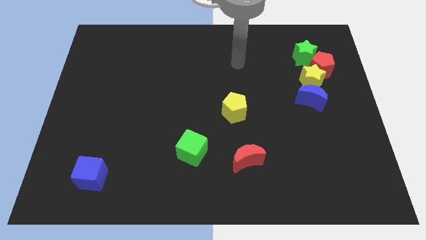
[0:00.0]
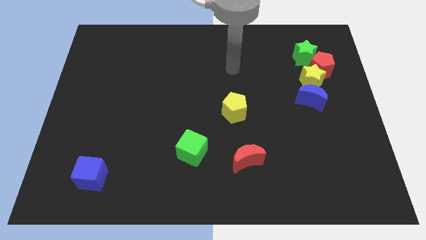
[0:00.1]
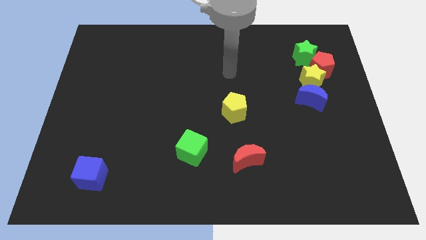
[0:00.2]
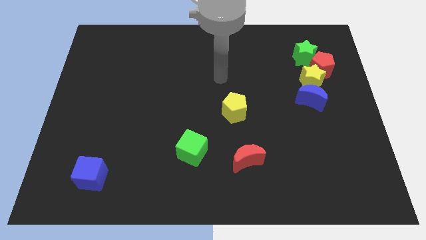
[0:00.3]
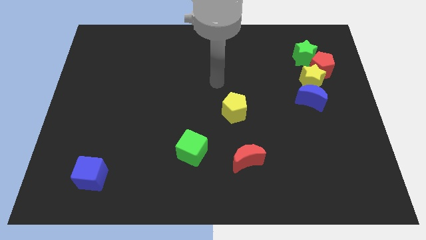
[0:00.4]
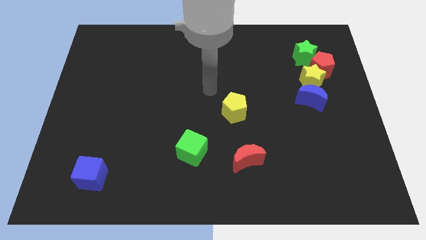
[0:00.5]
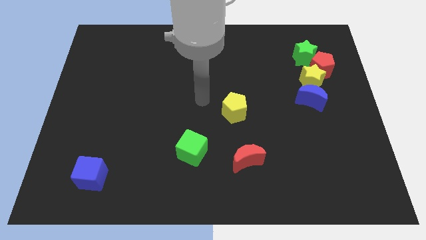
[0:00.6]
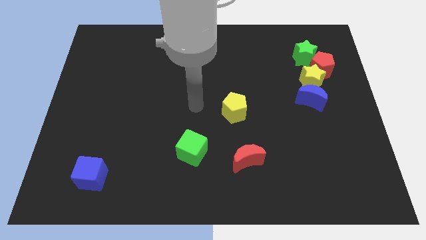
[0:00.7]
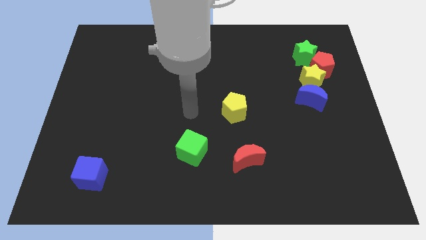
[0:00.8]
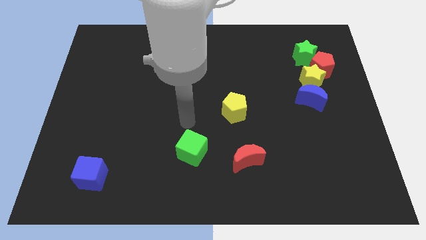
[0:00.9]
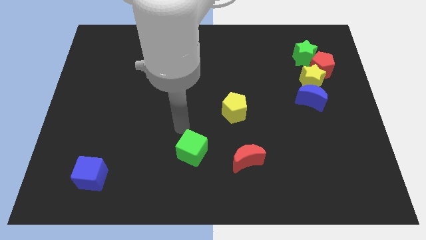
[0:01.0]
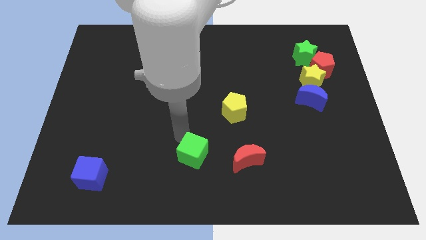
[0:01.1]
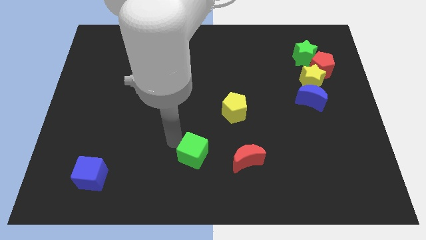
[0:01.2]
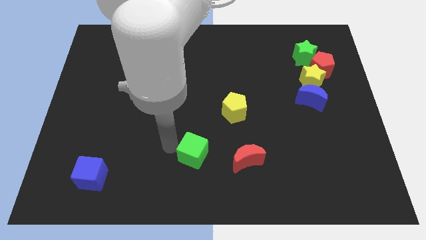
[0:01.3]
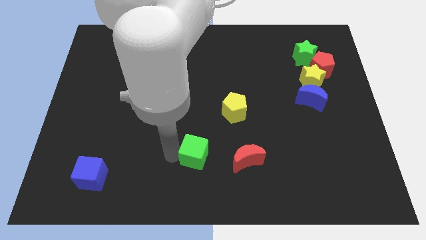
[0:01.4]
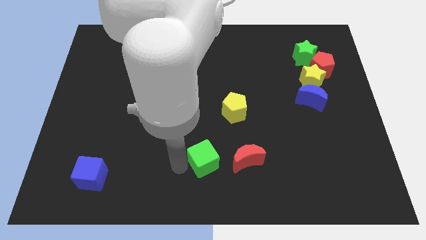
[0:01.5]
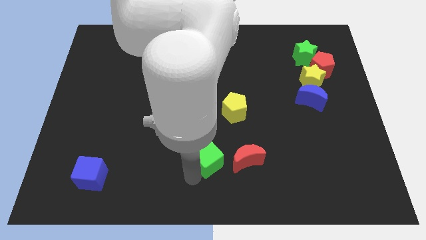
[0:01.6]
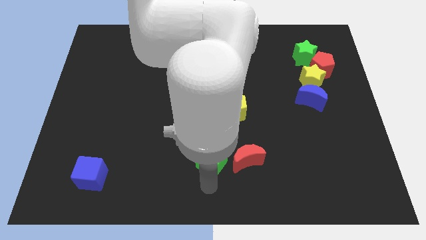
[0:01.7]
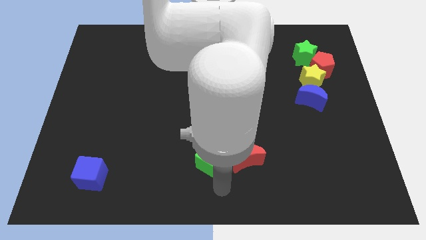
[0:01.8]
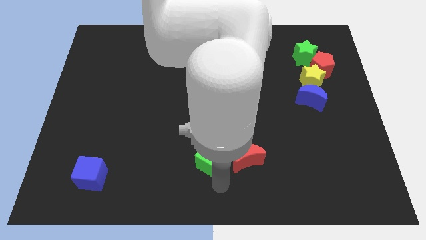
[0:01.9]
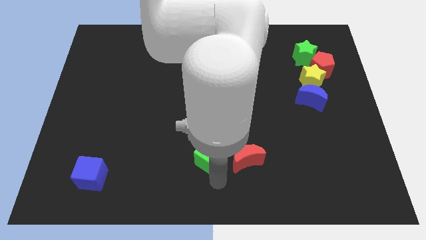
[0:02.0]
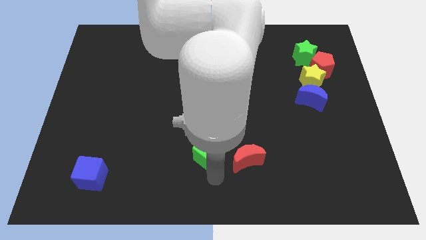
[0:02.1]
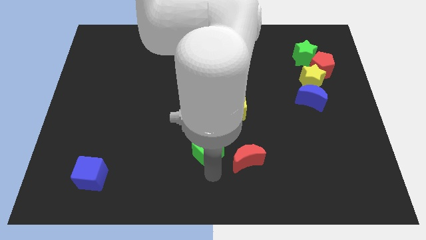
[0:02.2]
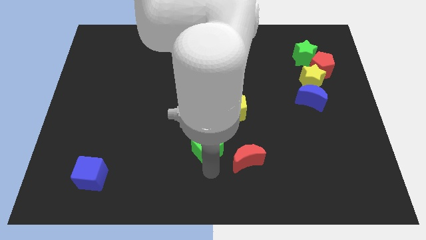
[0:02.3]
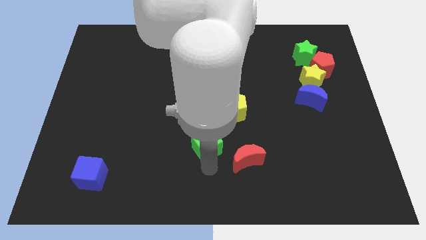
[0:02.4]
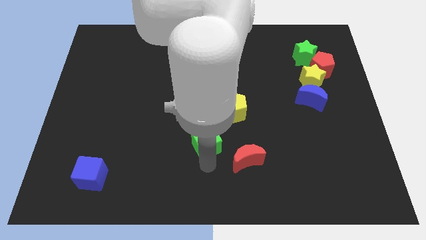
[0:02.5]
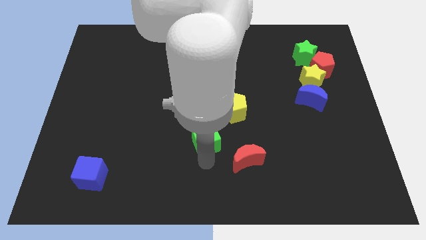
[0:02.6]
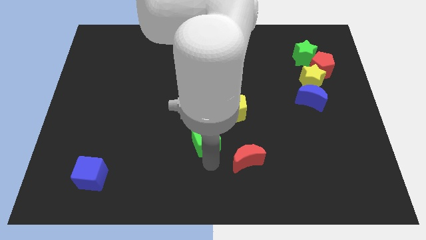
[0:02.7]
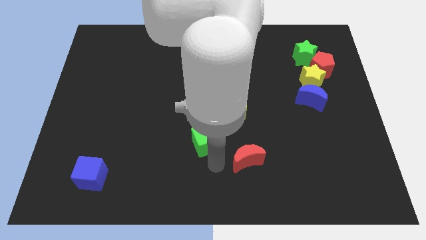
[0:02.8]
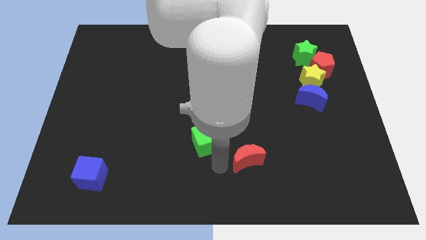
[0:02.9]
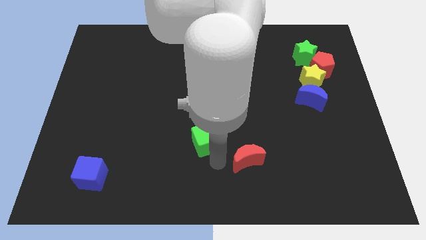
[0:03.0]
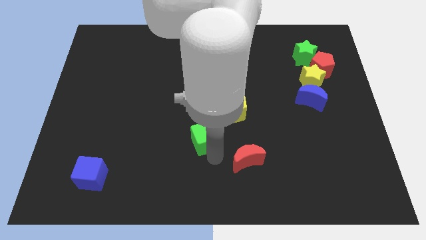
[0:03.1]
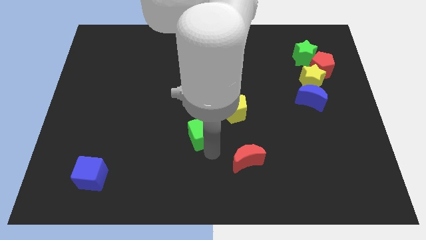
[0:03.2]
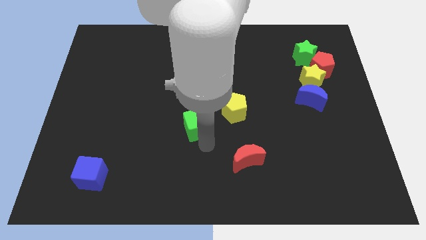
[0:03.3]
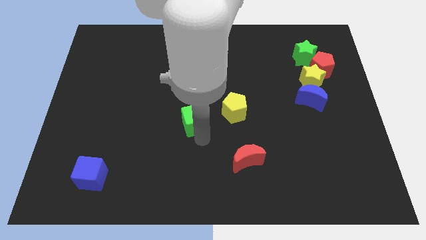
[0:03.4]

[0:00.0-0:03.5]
slide the green cube up slightly

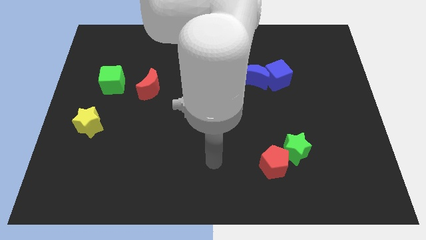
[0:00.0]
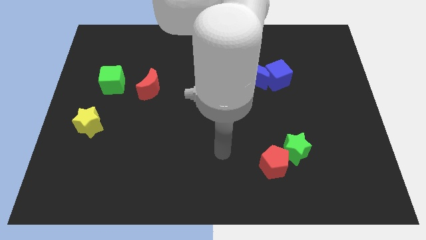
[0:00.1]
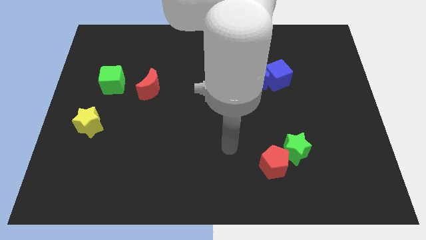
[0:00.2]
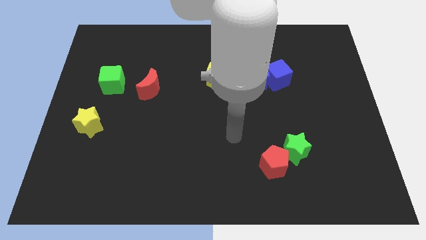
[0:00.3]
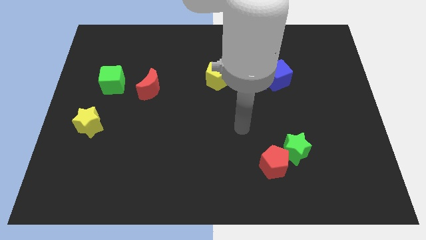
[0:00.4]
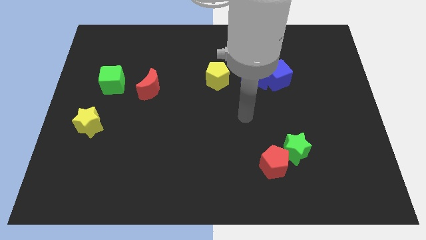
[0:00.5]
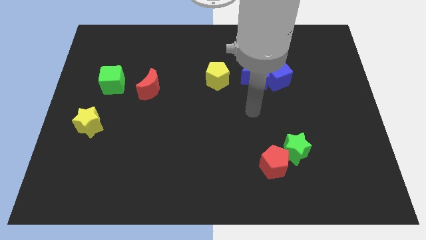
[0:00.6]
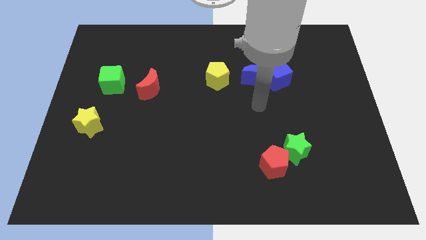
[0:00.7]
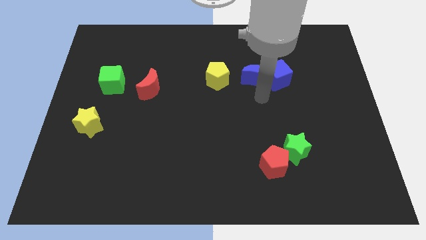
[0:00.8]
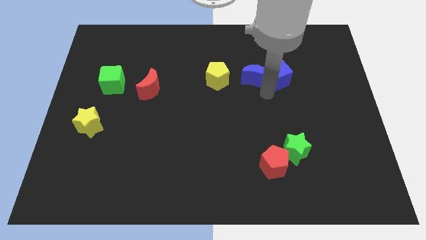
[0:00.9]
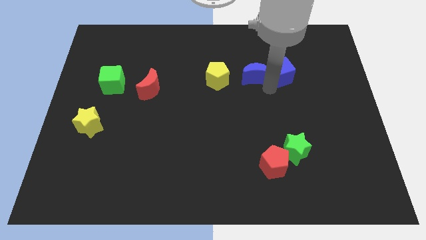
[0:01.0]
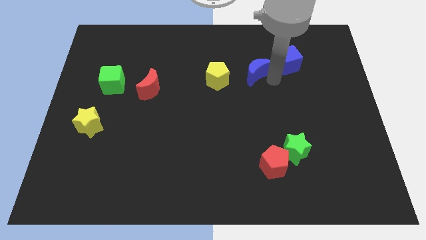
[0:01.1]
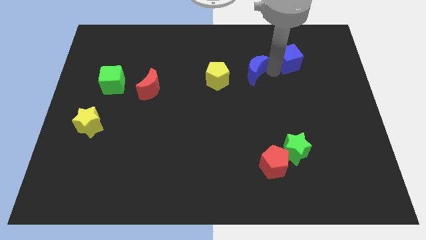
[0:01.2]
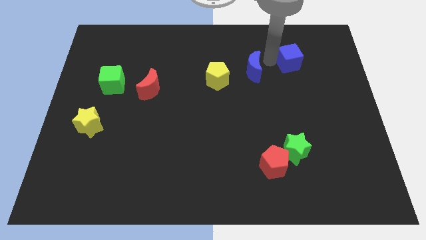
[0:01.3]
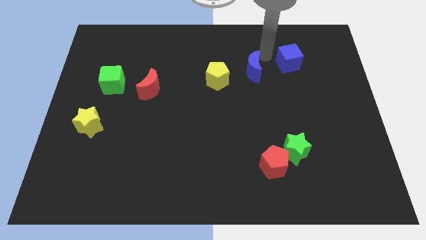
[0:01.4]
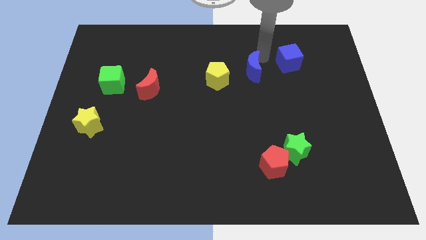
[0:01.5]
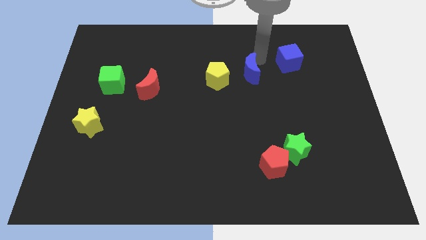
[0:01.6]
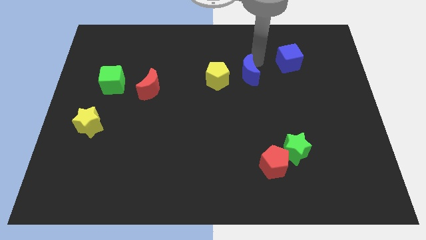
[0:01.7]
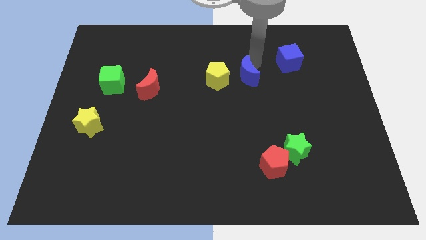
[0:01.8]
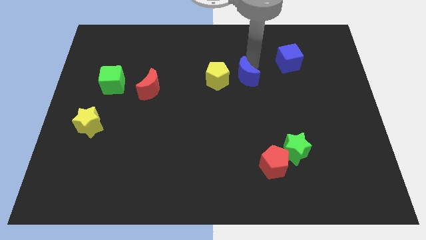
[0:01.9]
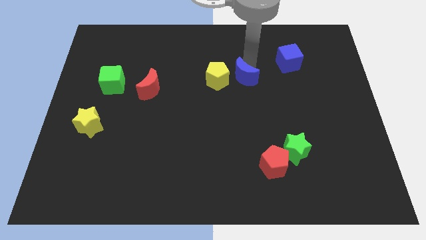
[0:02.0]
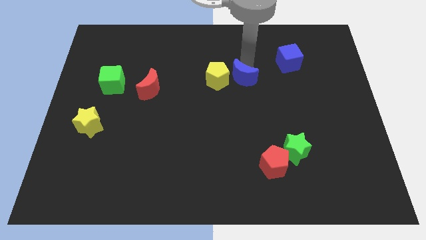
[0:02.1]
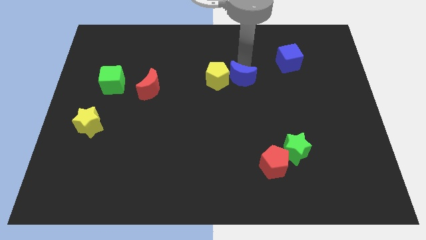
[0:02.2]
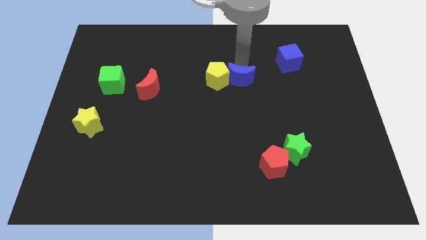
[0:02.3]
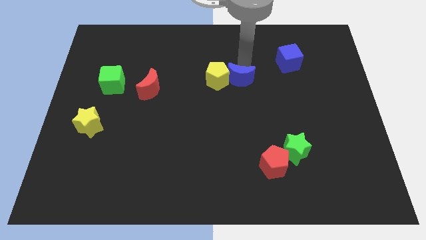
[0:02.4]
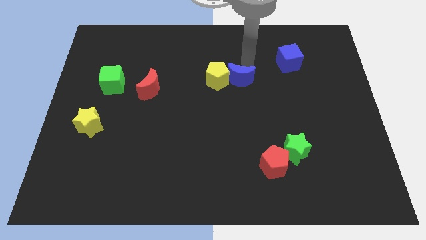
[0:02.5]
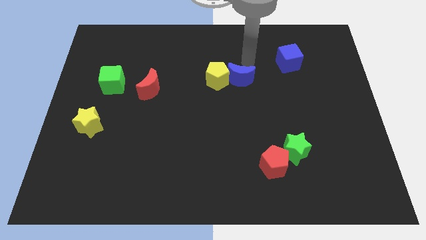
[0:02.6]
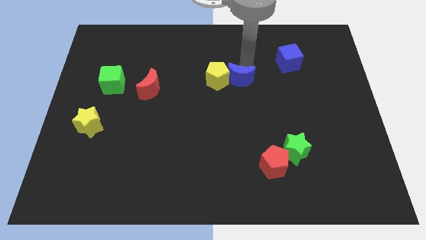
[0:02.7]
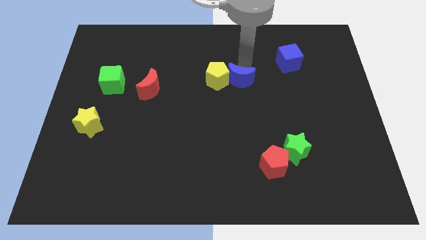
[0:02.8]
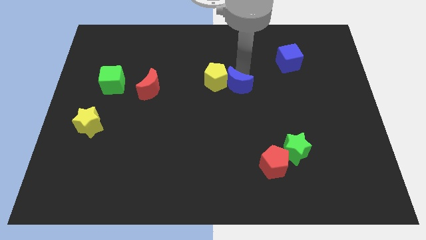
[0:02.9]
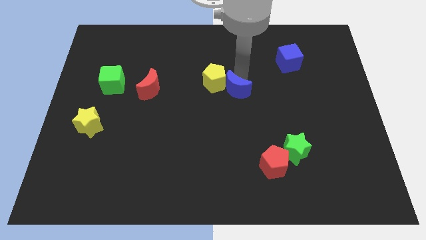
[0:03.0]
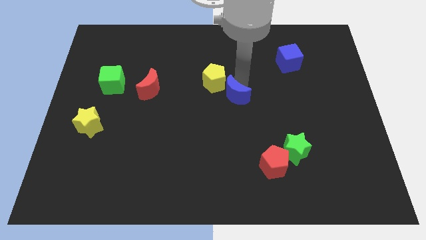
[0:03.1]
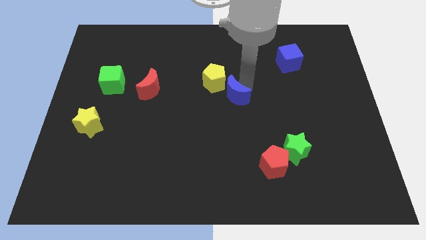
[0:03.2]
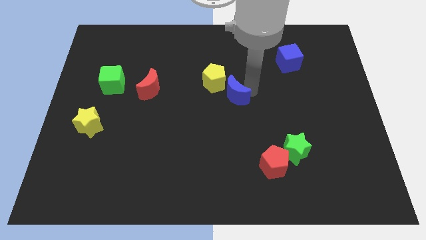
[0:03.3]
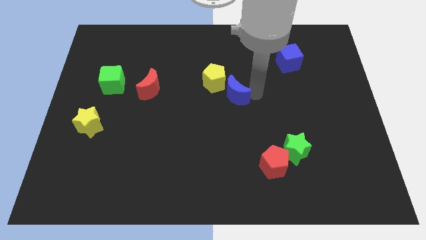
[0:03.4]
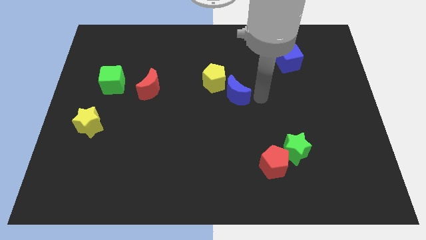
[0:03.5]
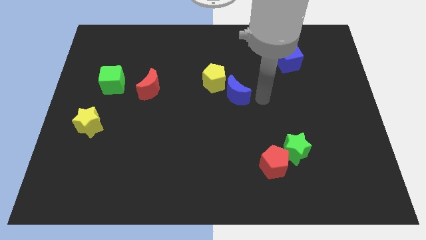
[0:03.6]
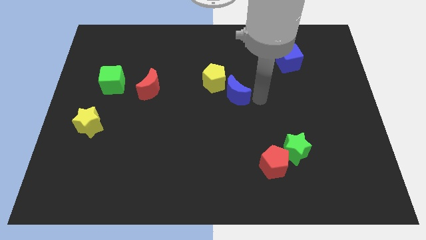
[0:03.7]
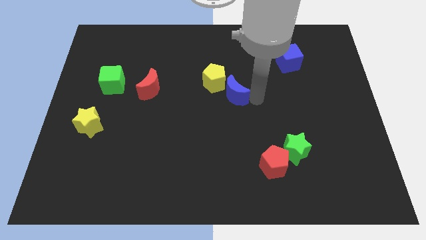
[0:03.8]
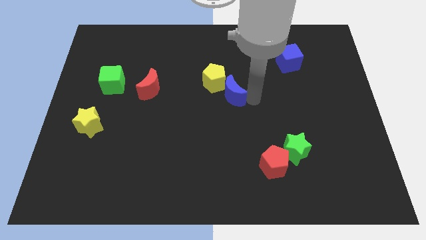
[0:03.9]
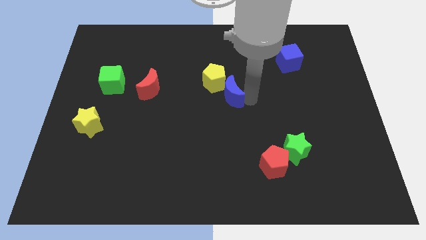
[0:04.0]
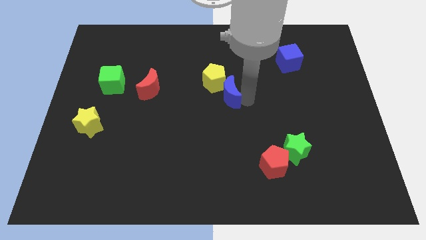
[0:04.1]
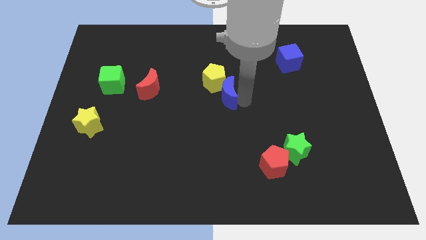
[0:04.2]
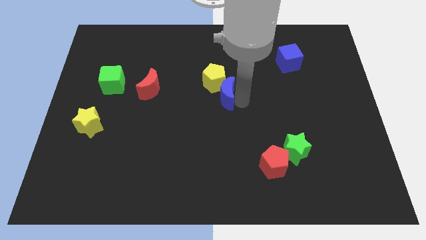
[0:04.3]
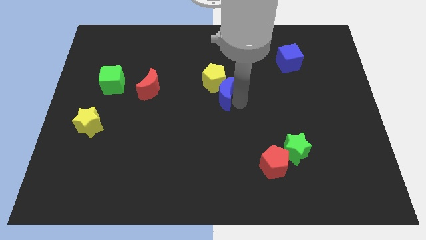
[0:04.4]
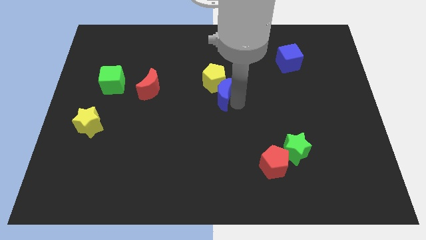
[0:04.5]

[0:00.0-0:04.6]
slightly slide the blue moon left

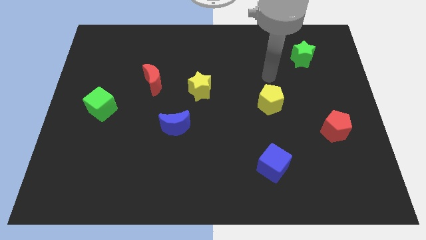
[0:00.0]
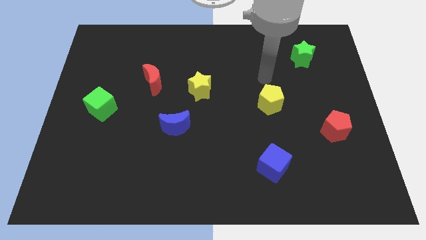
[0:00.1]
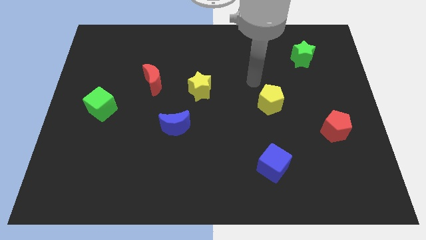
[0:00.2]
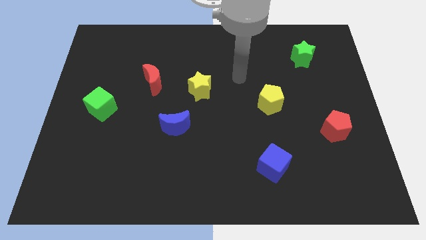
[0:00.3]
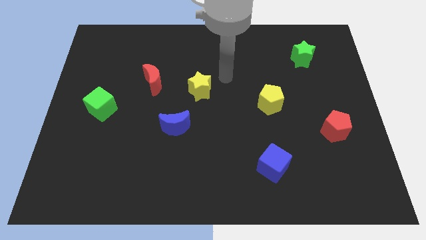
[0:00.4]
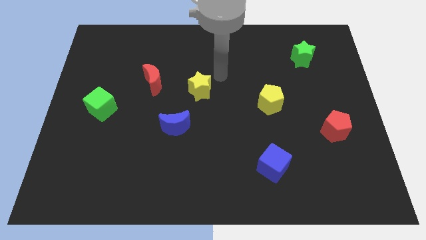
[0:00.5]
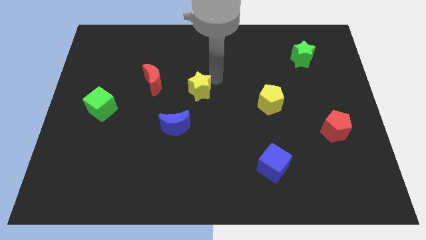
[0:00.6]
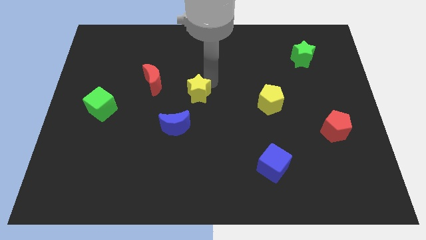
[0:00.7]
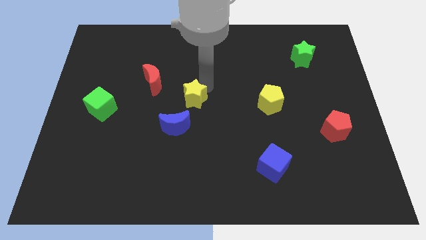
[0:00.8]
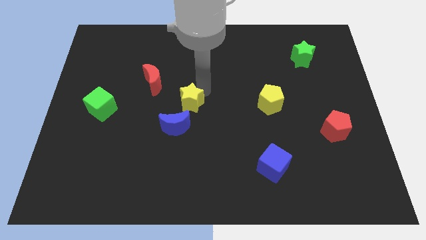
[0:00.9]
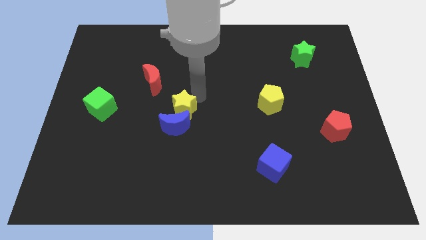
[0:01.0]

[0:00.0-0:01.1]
move the yellow star diagonally down and left somewhat
